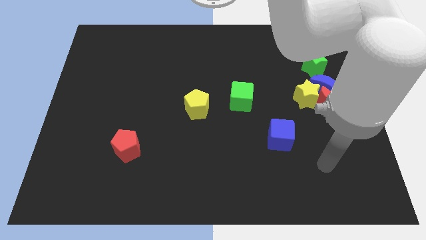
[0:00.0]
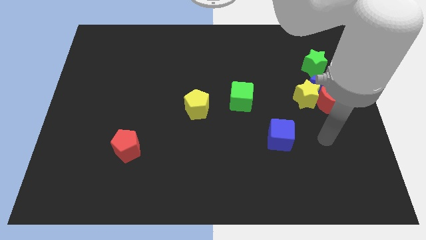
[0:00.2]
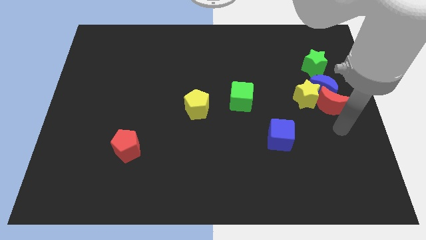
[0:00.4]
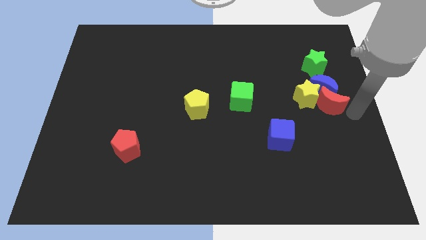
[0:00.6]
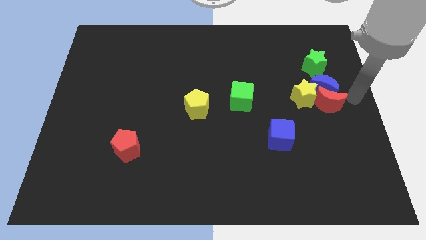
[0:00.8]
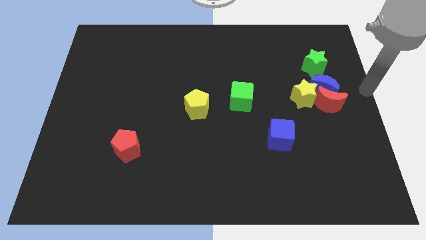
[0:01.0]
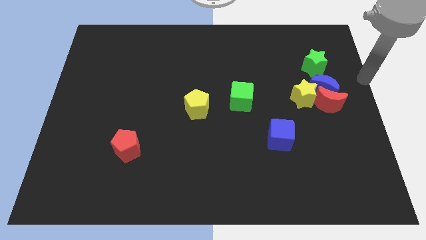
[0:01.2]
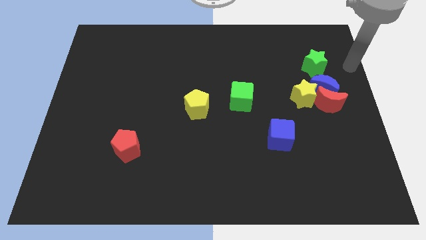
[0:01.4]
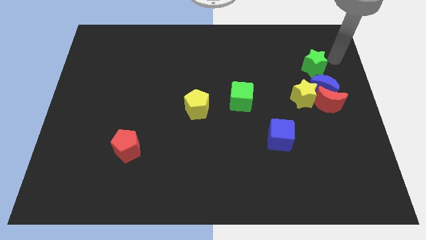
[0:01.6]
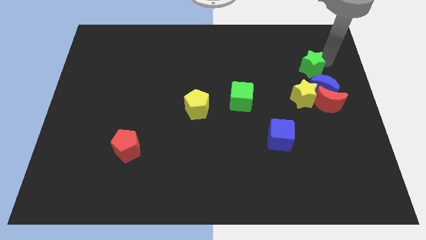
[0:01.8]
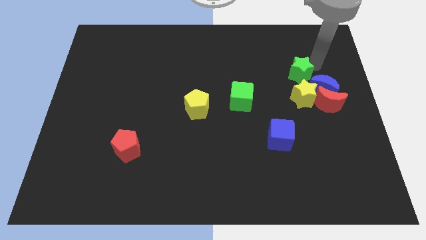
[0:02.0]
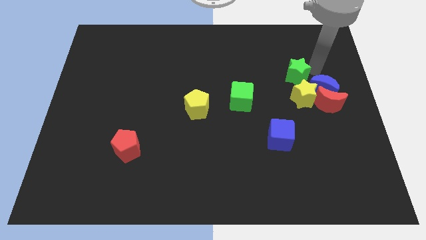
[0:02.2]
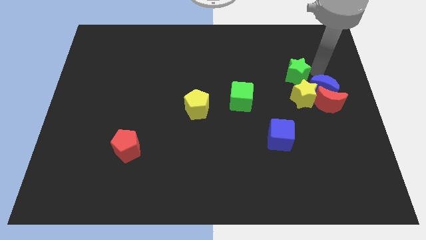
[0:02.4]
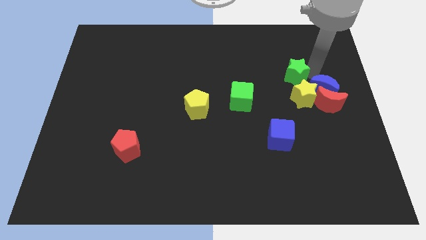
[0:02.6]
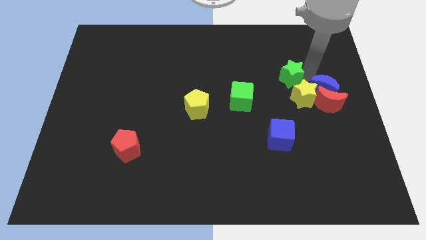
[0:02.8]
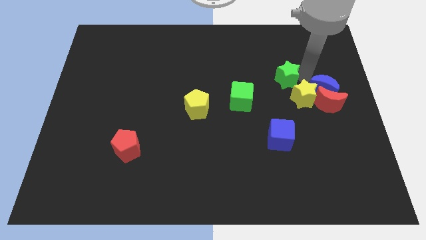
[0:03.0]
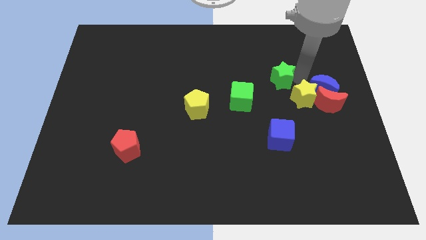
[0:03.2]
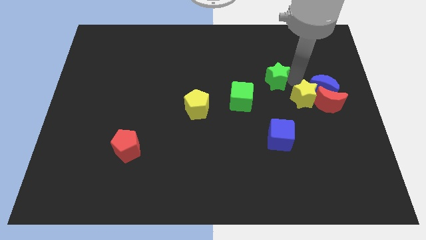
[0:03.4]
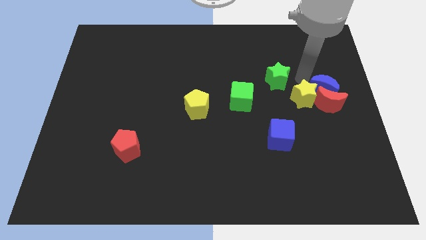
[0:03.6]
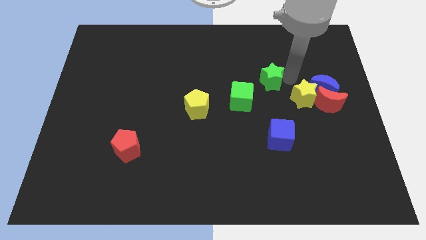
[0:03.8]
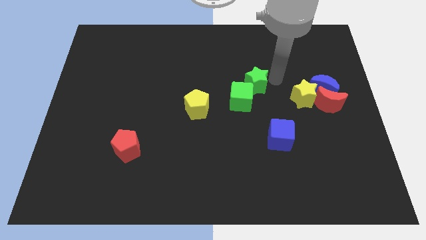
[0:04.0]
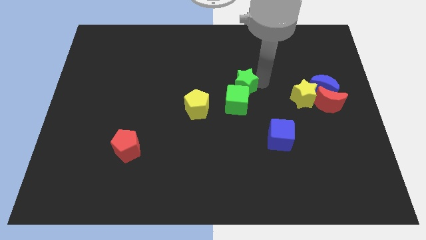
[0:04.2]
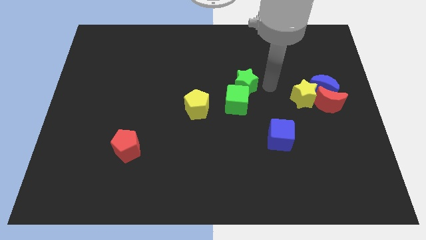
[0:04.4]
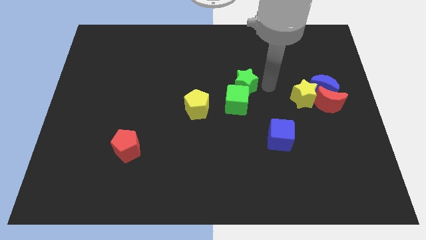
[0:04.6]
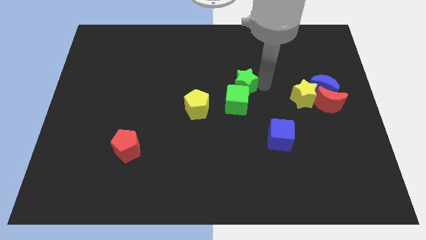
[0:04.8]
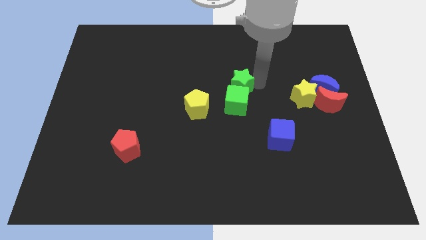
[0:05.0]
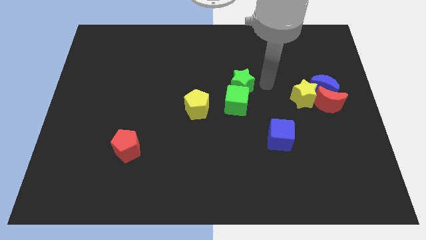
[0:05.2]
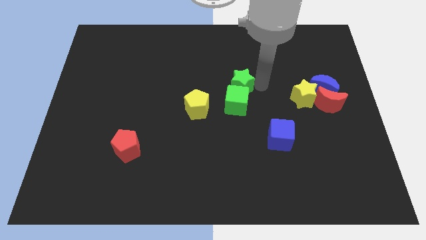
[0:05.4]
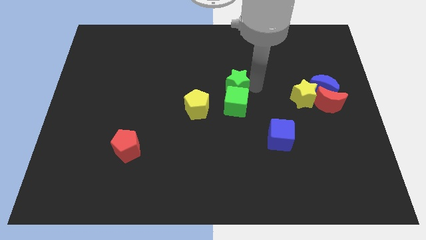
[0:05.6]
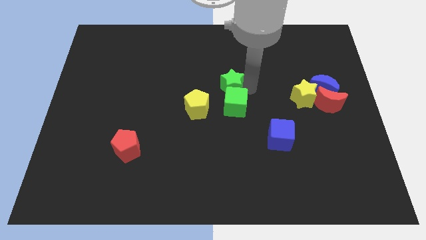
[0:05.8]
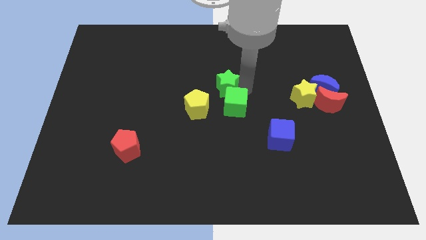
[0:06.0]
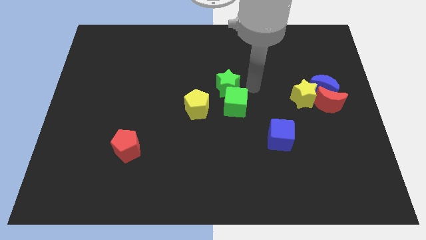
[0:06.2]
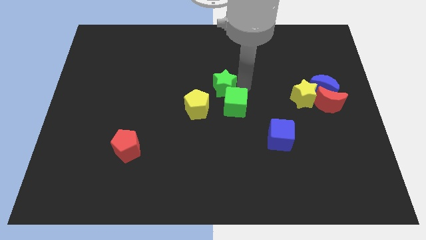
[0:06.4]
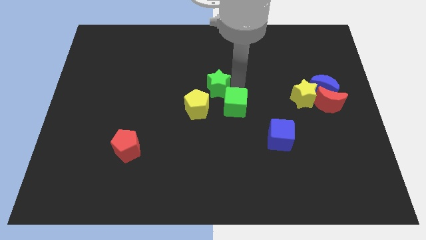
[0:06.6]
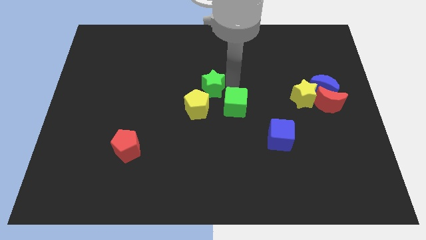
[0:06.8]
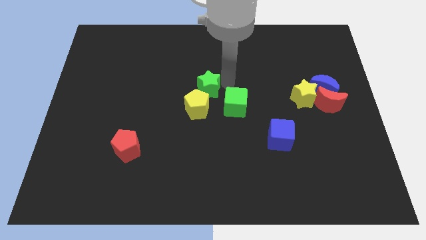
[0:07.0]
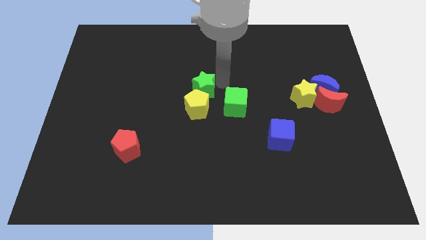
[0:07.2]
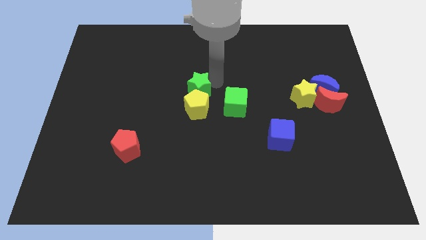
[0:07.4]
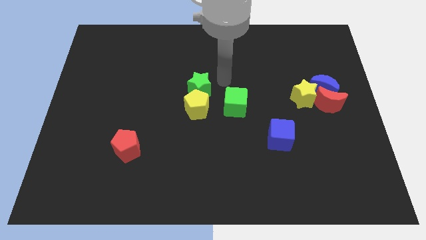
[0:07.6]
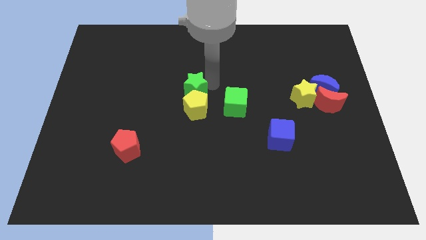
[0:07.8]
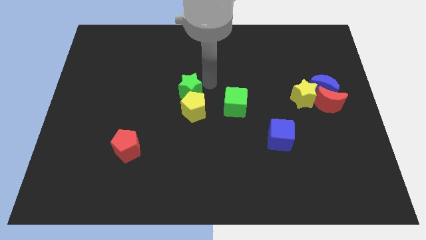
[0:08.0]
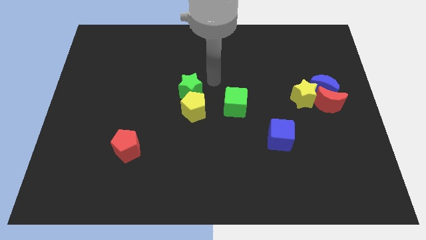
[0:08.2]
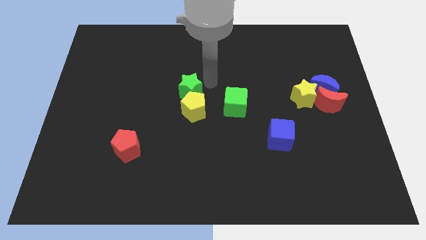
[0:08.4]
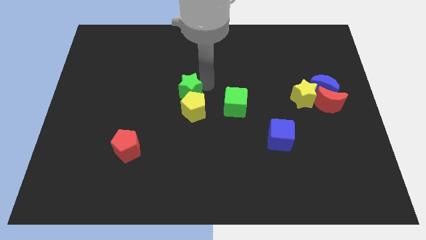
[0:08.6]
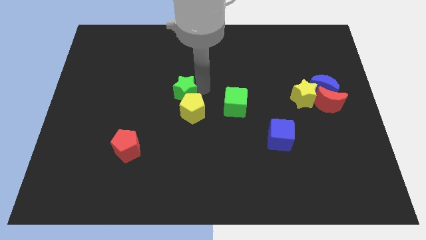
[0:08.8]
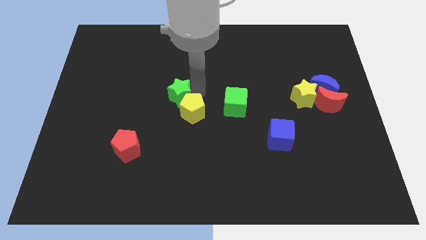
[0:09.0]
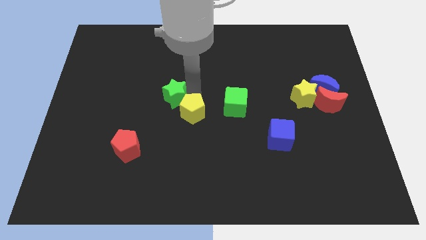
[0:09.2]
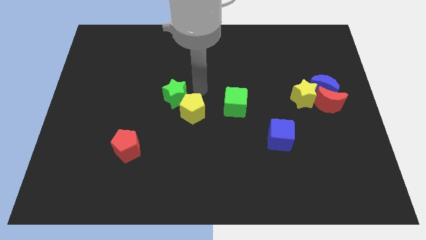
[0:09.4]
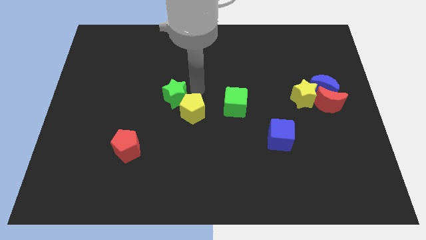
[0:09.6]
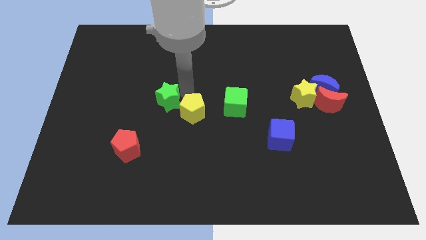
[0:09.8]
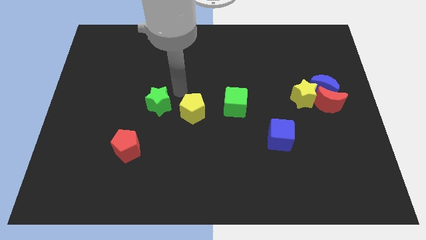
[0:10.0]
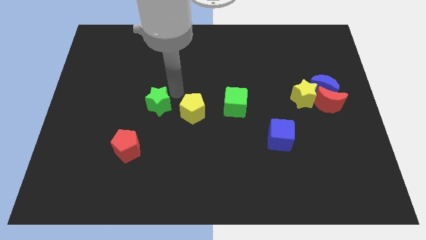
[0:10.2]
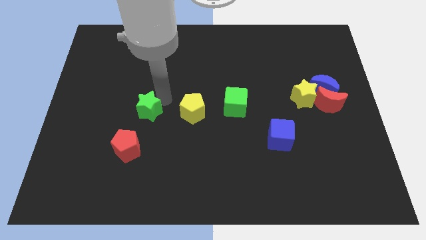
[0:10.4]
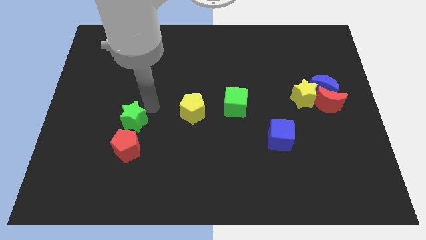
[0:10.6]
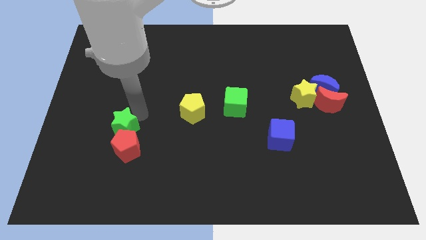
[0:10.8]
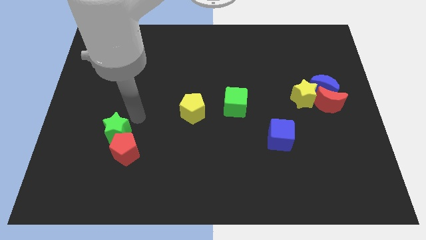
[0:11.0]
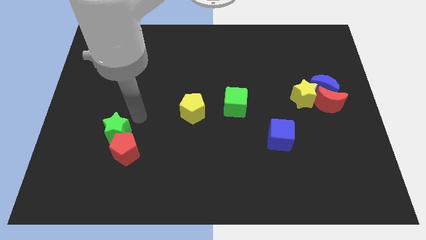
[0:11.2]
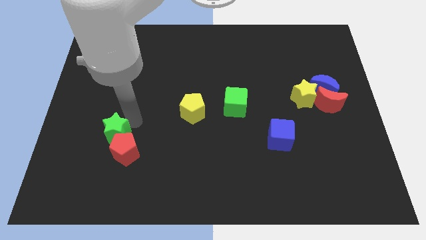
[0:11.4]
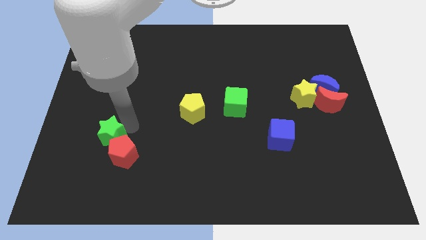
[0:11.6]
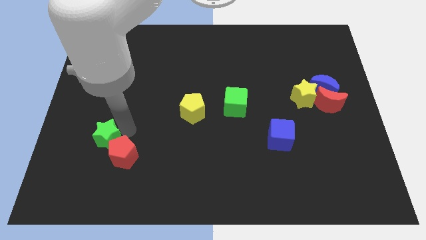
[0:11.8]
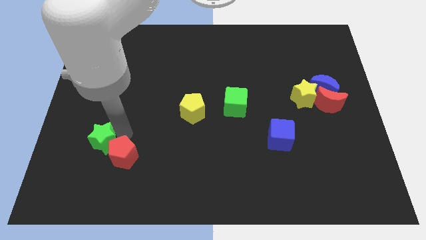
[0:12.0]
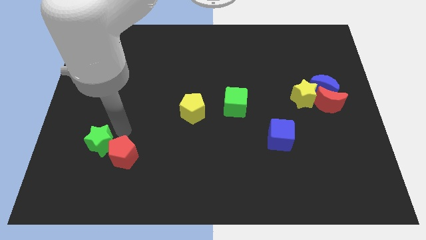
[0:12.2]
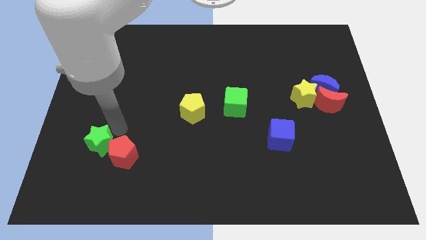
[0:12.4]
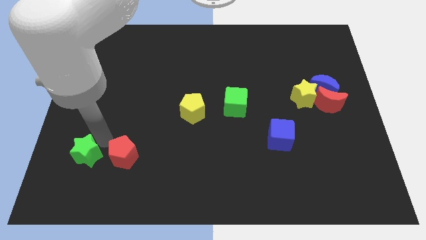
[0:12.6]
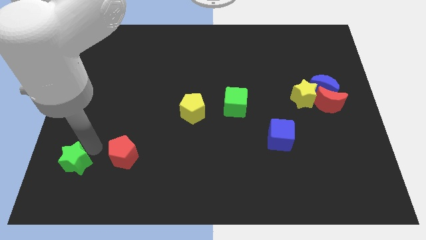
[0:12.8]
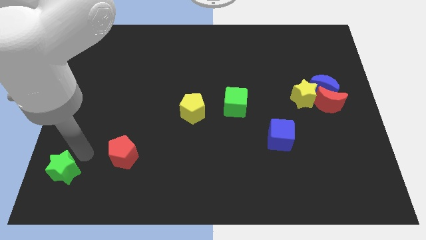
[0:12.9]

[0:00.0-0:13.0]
move the green star to the bottom left corner
